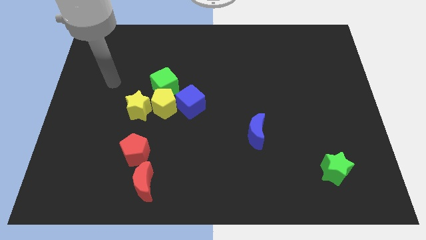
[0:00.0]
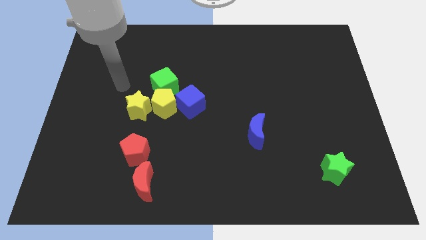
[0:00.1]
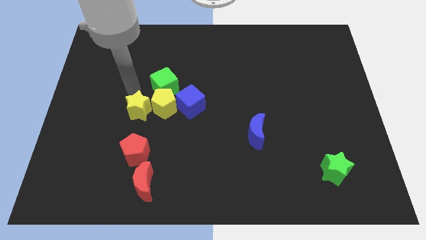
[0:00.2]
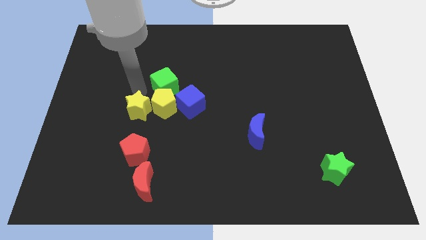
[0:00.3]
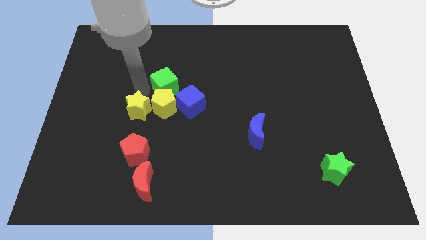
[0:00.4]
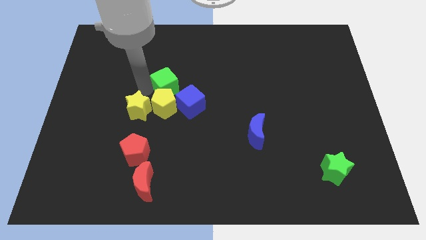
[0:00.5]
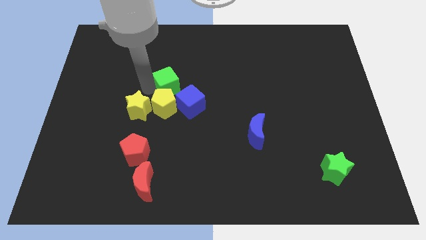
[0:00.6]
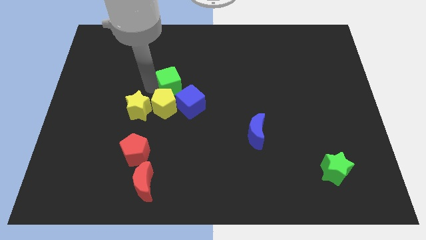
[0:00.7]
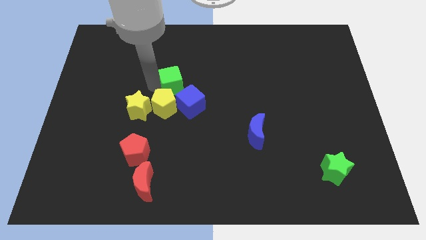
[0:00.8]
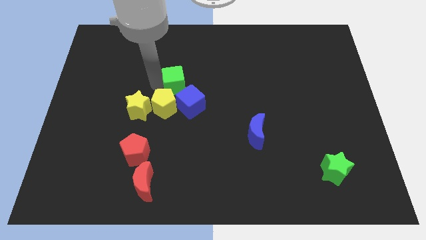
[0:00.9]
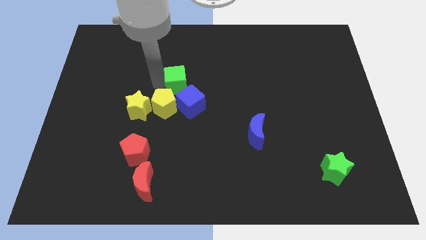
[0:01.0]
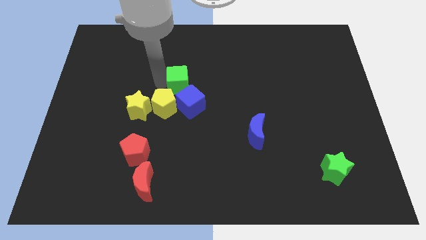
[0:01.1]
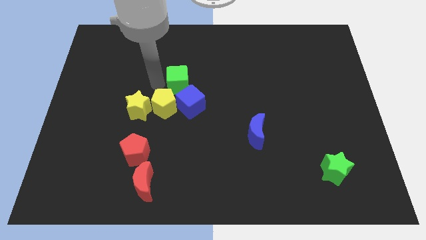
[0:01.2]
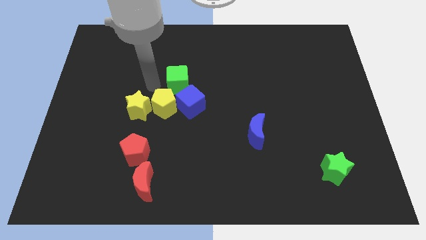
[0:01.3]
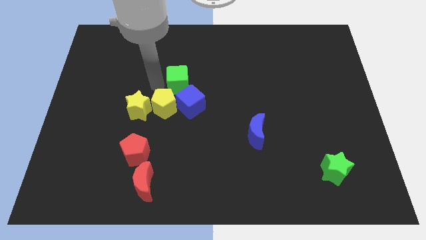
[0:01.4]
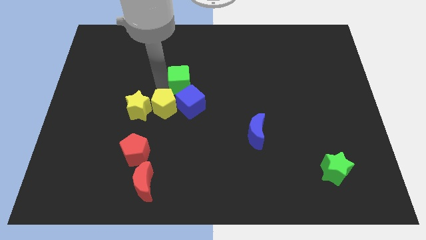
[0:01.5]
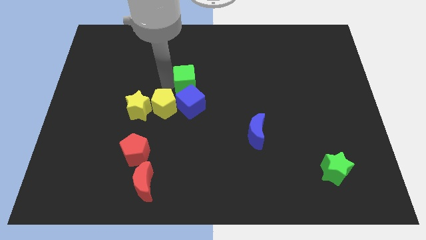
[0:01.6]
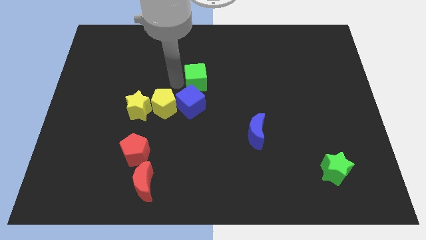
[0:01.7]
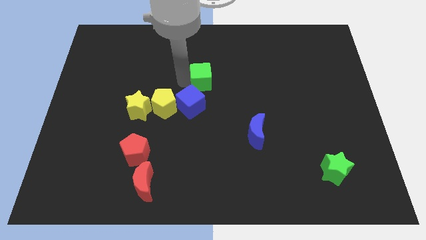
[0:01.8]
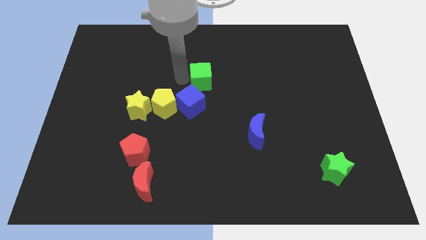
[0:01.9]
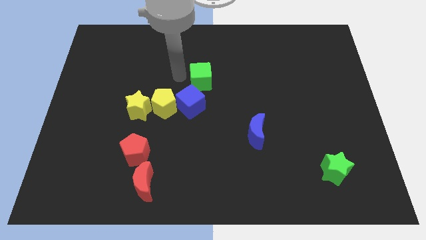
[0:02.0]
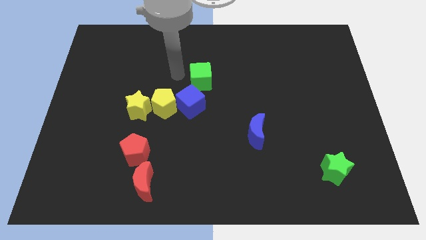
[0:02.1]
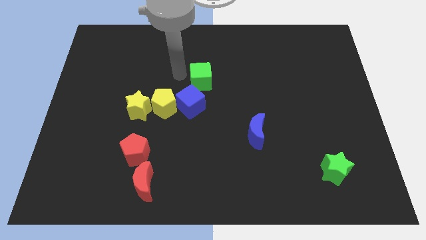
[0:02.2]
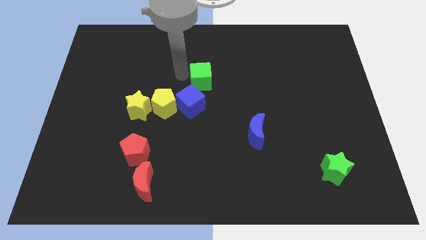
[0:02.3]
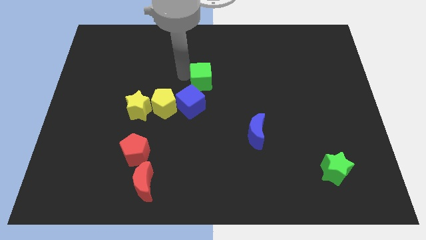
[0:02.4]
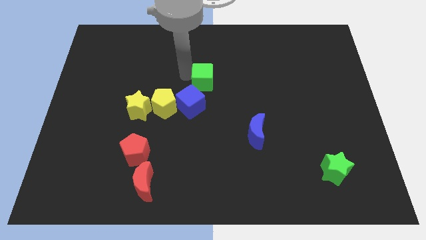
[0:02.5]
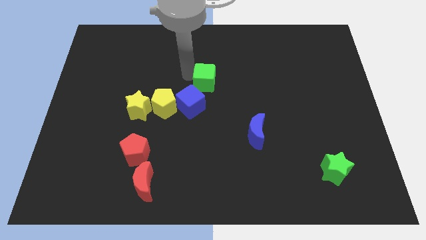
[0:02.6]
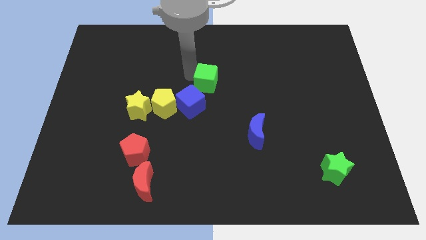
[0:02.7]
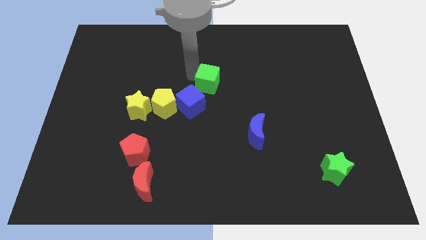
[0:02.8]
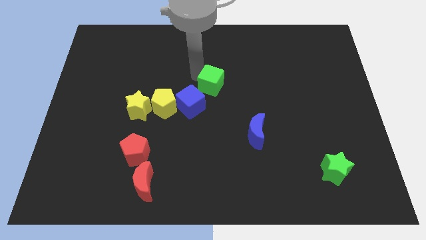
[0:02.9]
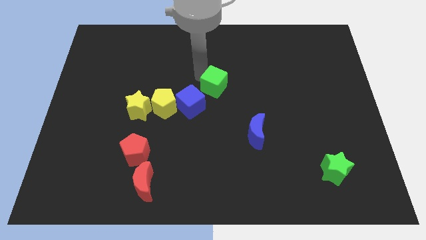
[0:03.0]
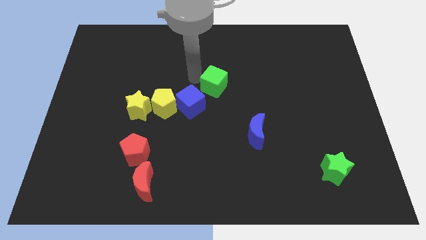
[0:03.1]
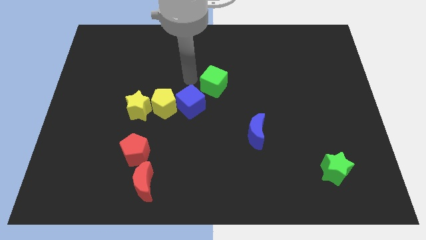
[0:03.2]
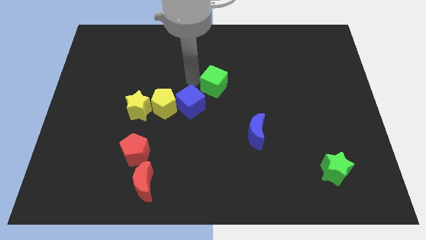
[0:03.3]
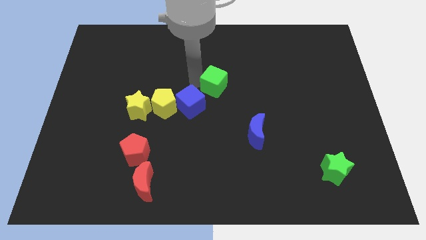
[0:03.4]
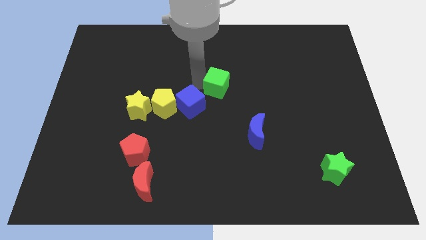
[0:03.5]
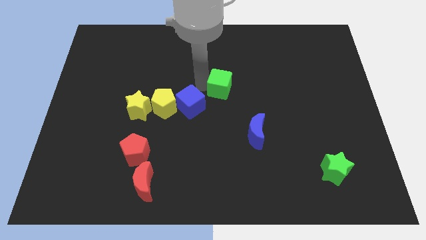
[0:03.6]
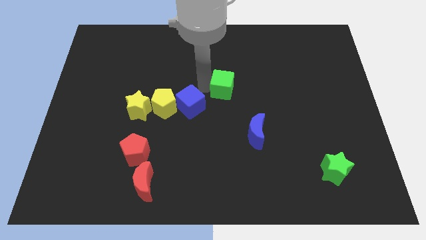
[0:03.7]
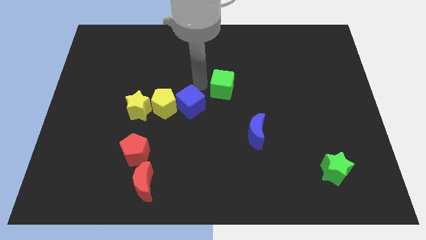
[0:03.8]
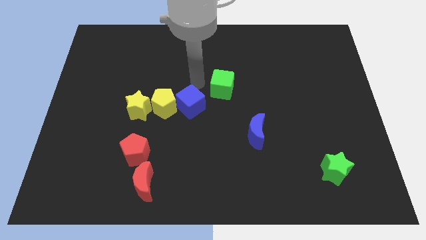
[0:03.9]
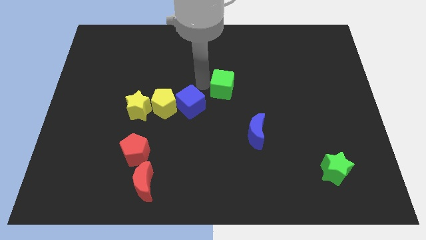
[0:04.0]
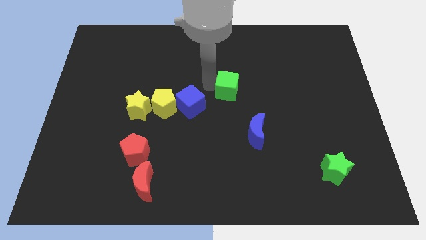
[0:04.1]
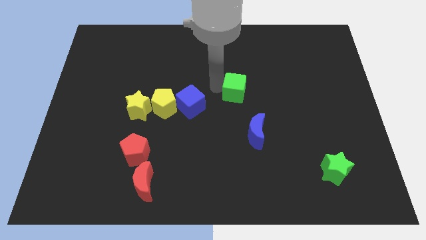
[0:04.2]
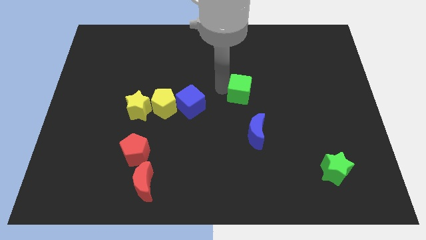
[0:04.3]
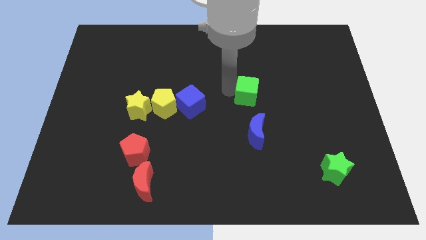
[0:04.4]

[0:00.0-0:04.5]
push the green cube to the right

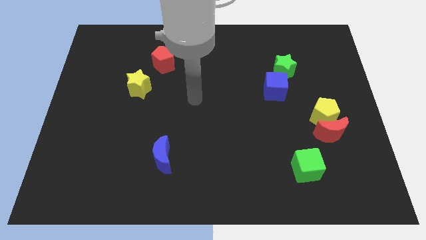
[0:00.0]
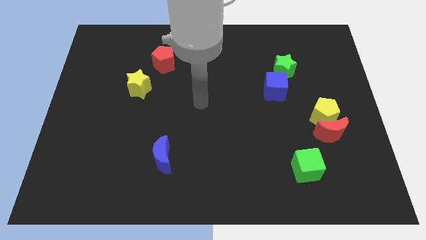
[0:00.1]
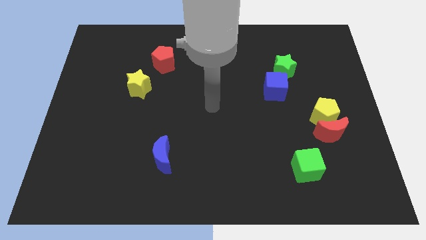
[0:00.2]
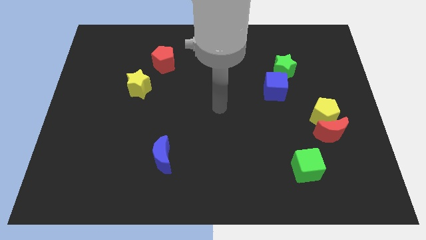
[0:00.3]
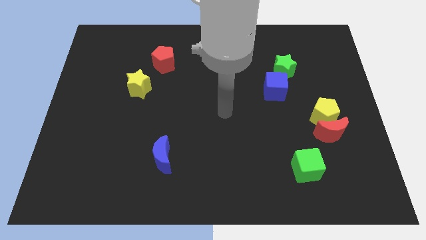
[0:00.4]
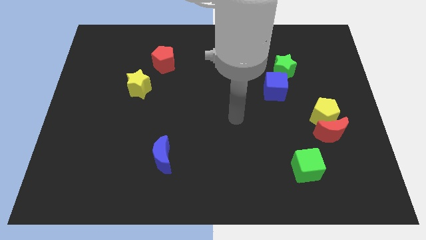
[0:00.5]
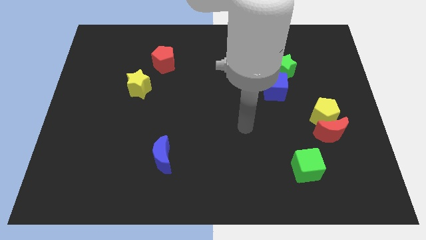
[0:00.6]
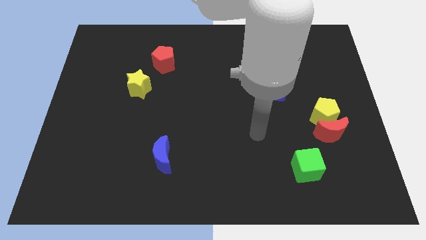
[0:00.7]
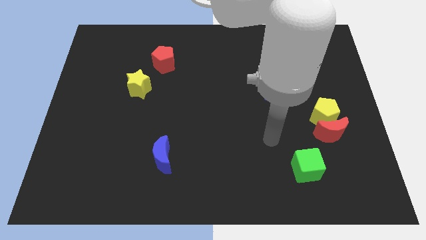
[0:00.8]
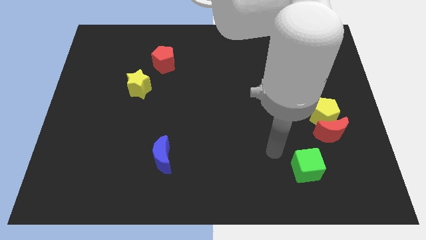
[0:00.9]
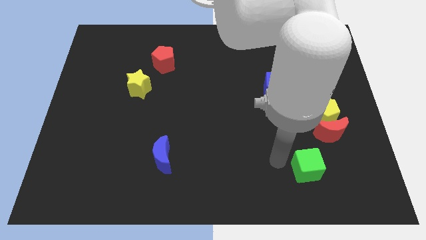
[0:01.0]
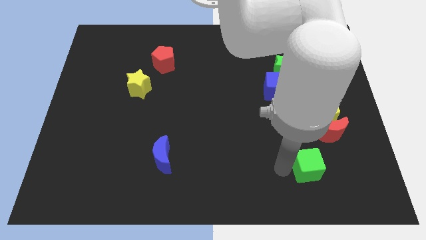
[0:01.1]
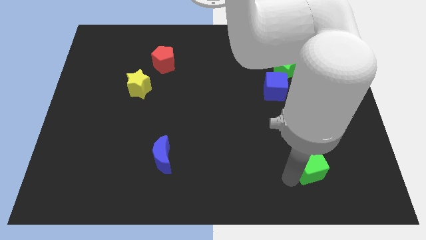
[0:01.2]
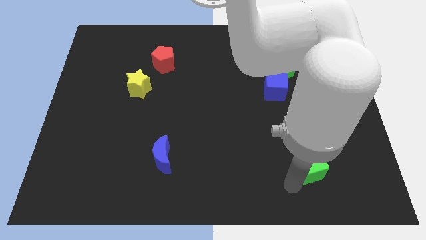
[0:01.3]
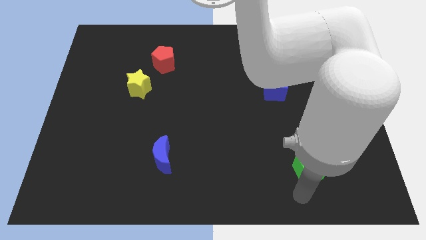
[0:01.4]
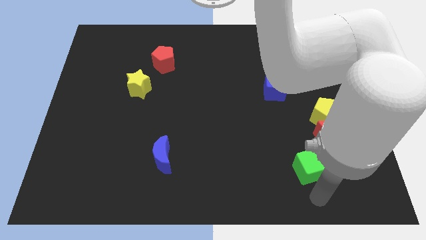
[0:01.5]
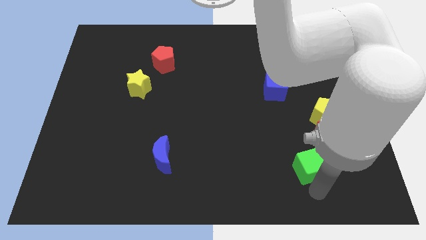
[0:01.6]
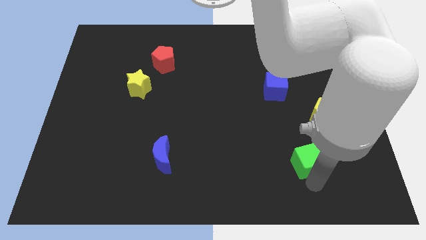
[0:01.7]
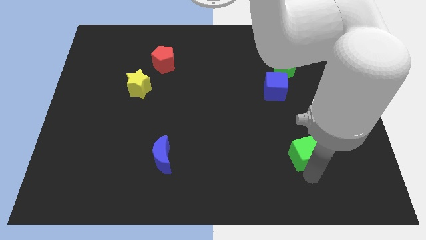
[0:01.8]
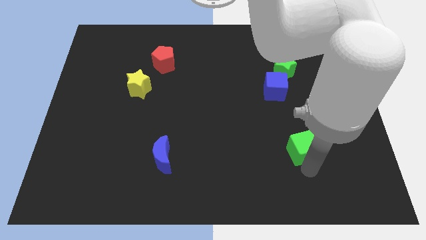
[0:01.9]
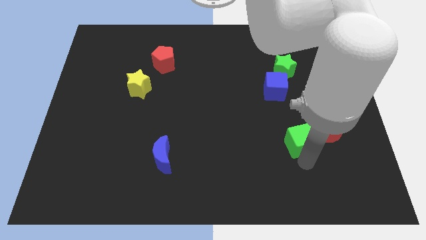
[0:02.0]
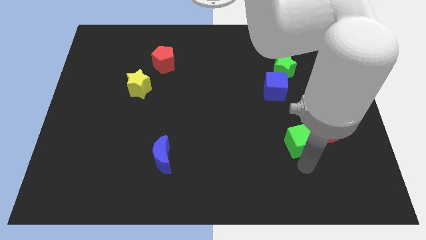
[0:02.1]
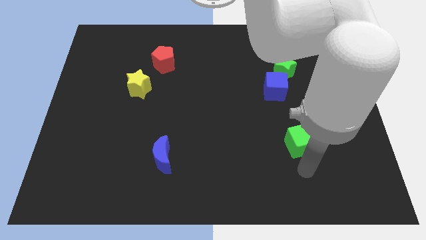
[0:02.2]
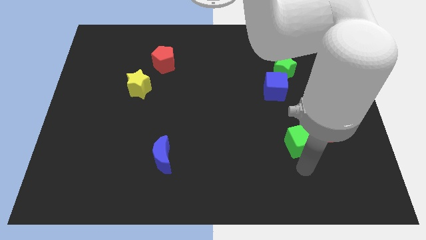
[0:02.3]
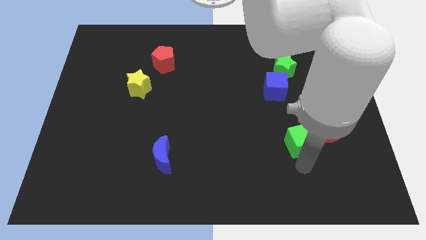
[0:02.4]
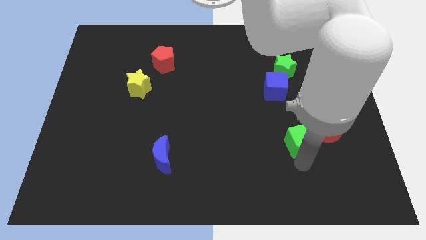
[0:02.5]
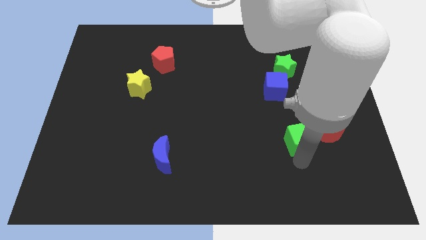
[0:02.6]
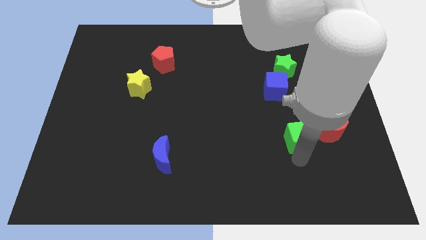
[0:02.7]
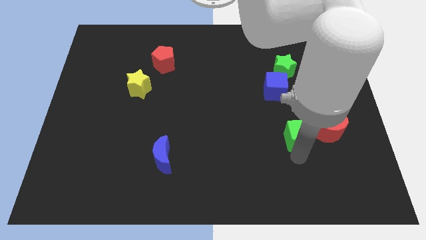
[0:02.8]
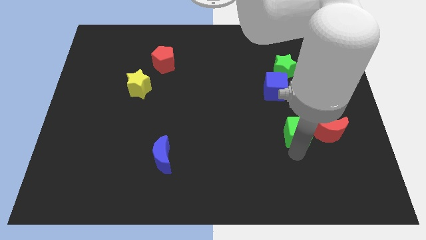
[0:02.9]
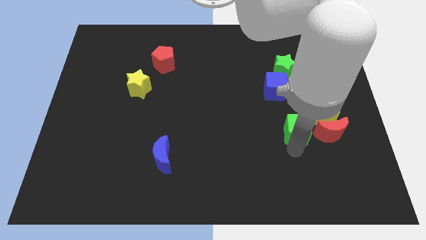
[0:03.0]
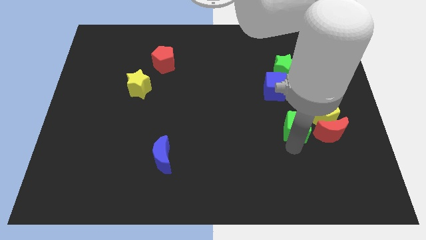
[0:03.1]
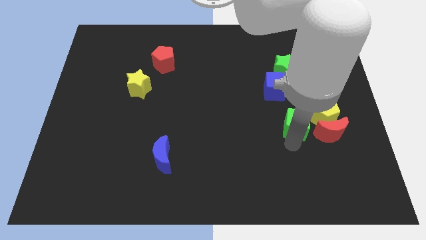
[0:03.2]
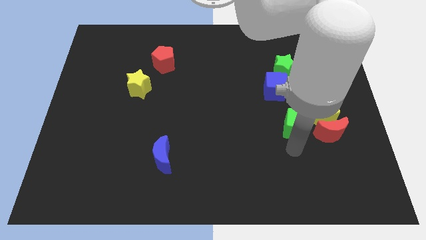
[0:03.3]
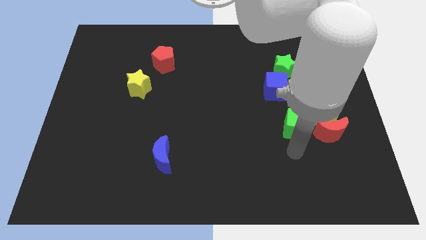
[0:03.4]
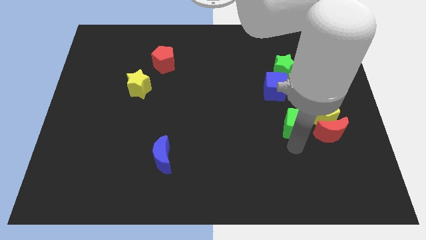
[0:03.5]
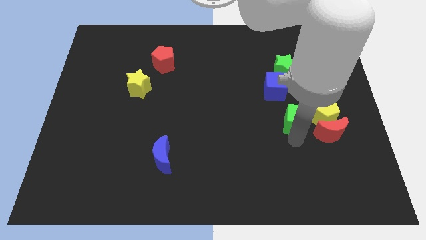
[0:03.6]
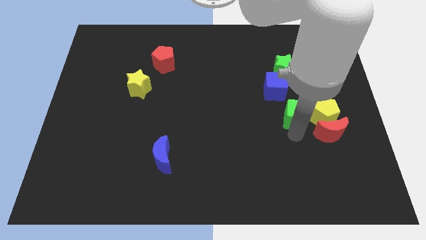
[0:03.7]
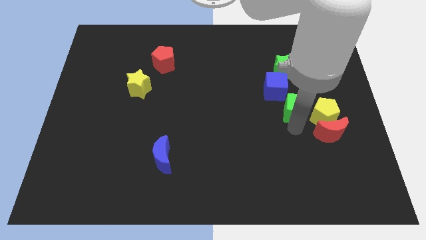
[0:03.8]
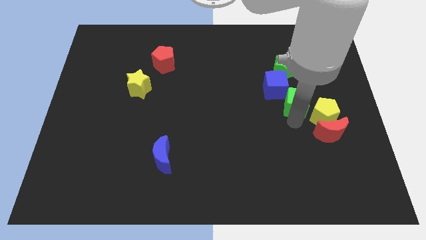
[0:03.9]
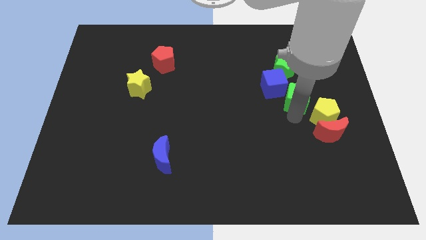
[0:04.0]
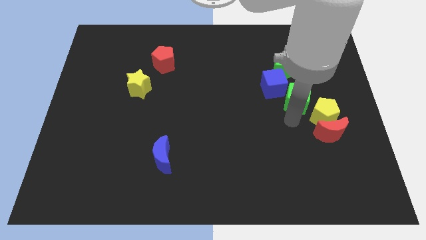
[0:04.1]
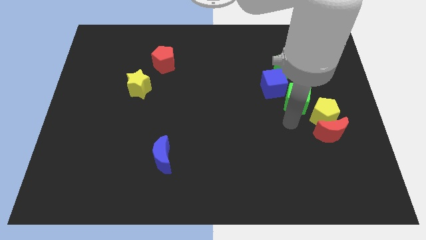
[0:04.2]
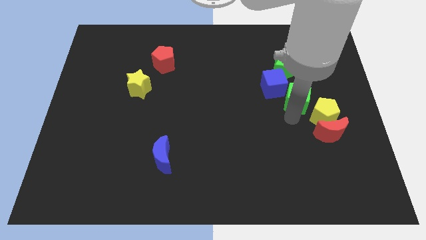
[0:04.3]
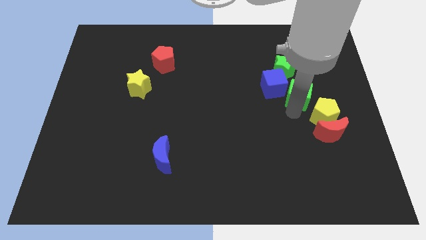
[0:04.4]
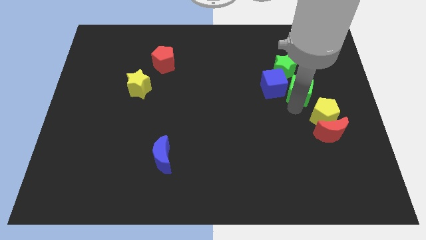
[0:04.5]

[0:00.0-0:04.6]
move the green cube upwards
